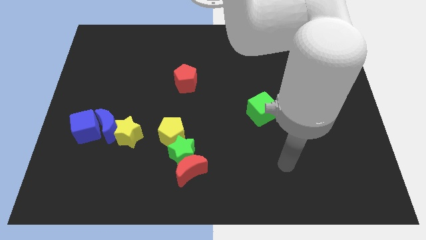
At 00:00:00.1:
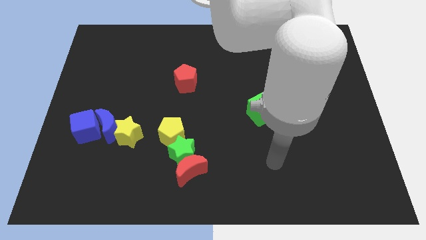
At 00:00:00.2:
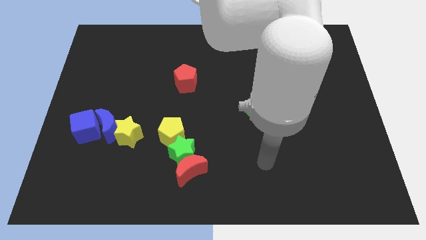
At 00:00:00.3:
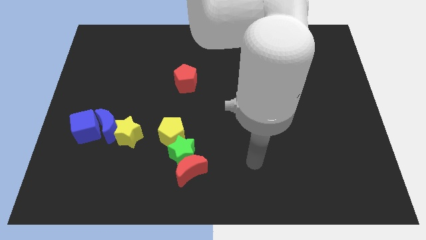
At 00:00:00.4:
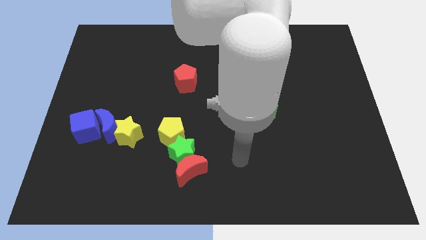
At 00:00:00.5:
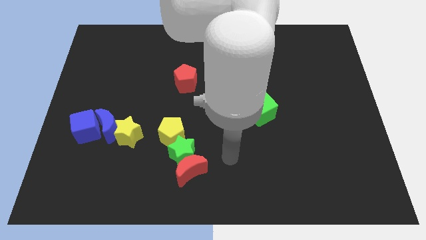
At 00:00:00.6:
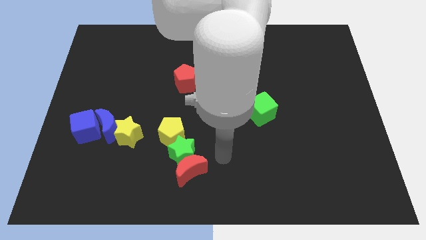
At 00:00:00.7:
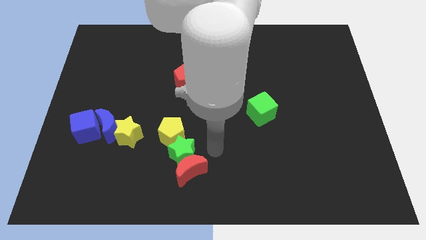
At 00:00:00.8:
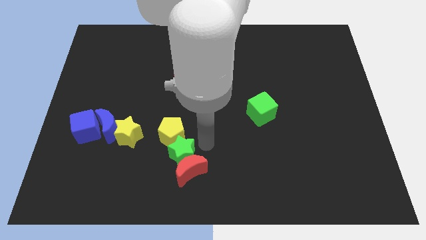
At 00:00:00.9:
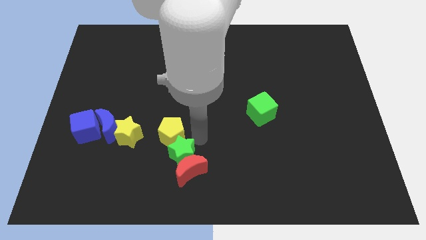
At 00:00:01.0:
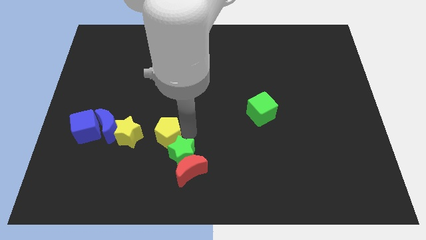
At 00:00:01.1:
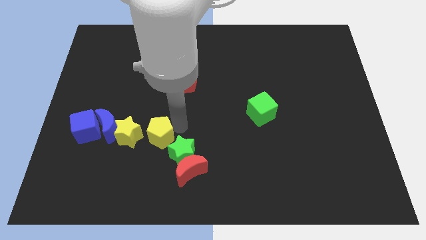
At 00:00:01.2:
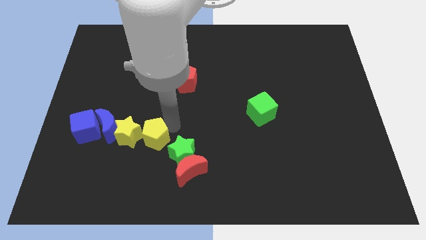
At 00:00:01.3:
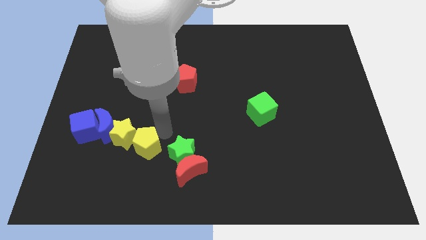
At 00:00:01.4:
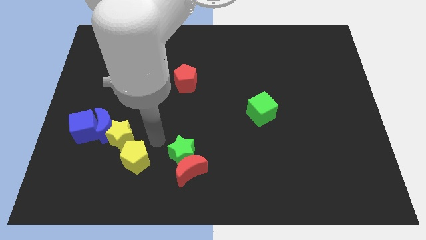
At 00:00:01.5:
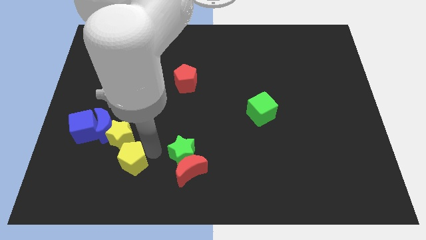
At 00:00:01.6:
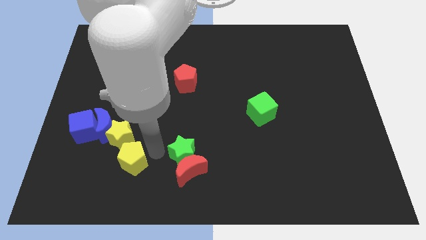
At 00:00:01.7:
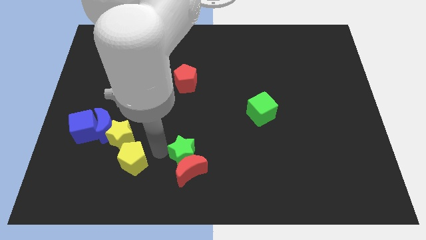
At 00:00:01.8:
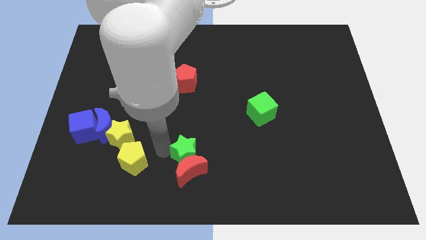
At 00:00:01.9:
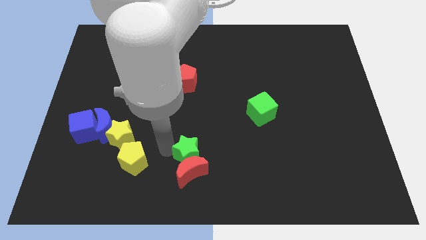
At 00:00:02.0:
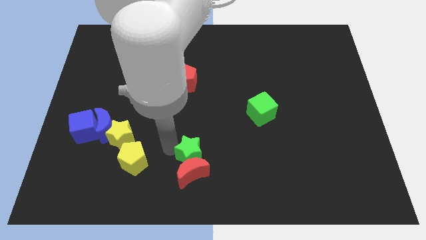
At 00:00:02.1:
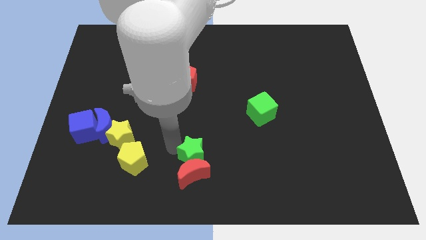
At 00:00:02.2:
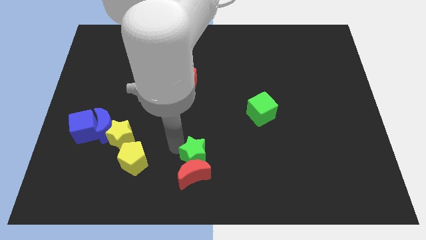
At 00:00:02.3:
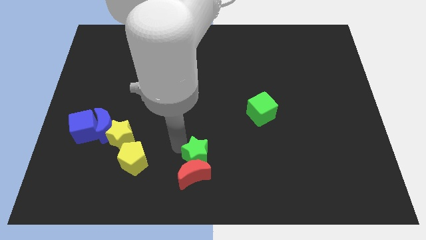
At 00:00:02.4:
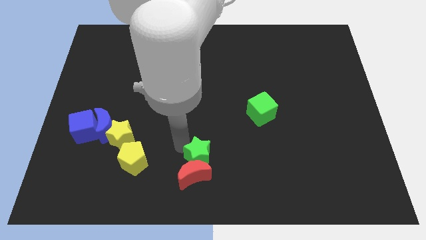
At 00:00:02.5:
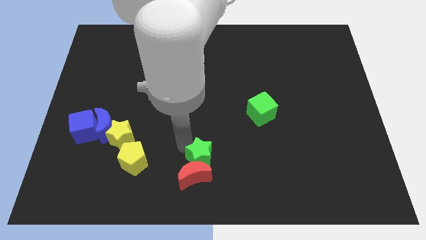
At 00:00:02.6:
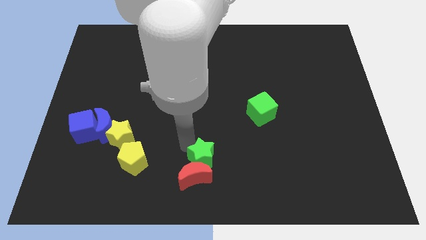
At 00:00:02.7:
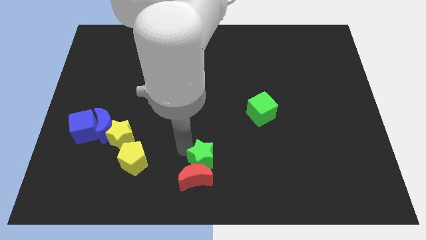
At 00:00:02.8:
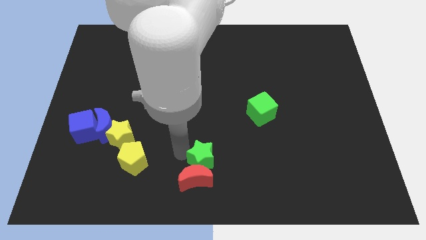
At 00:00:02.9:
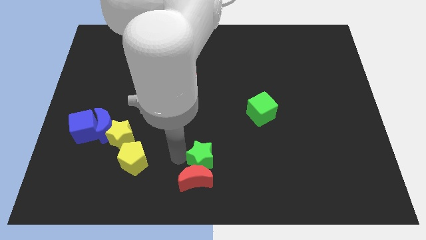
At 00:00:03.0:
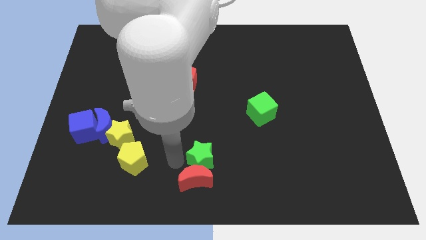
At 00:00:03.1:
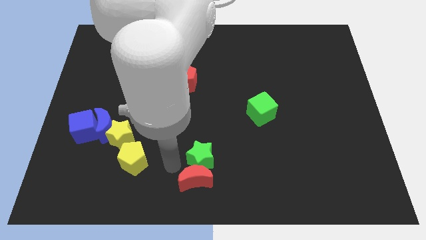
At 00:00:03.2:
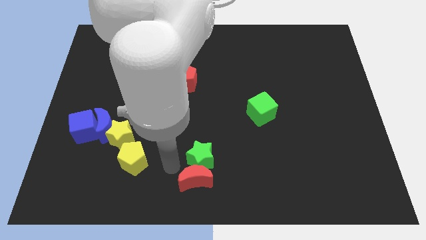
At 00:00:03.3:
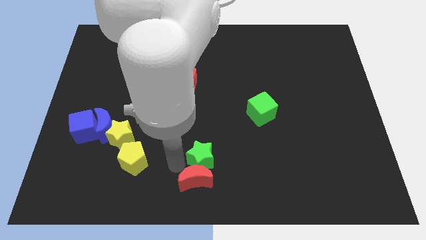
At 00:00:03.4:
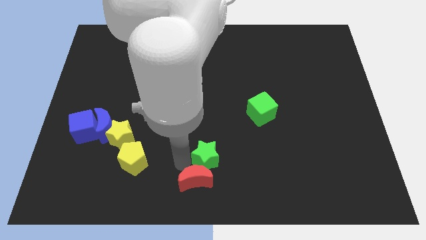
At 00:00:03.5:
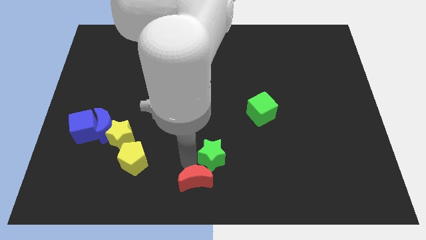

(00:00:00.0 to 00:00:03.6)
separate the green star from the red moon and yellow pentagon

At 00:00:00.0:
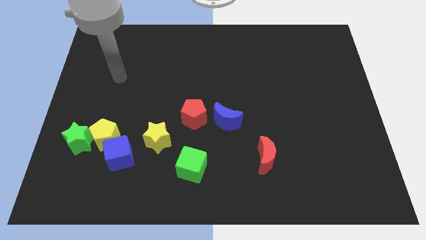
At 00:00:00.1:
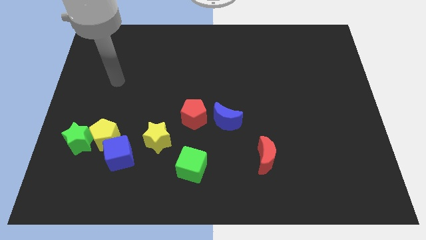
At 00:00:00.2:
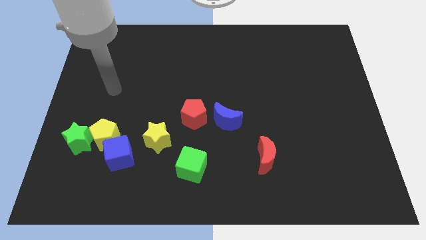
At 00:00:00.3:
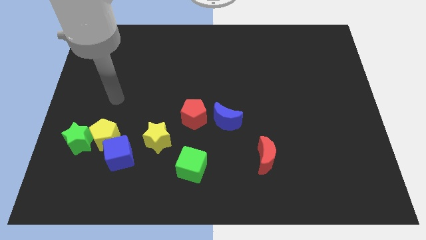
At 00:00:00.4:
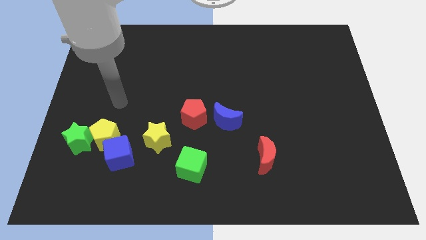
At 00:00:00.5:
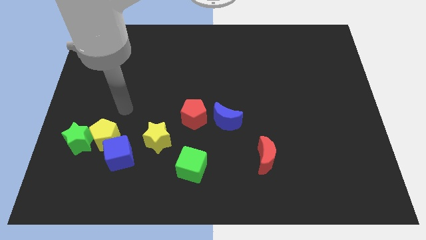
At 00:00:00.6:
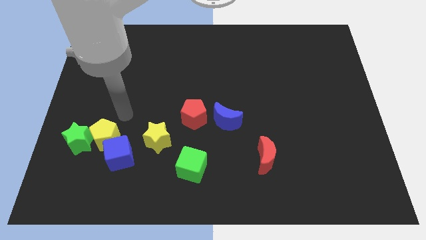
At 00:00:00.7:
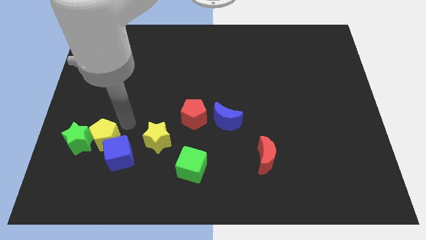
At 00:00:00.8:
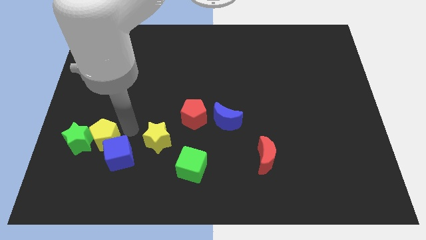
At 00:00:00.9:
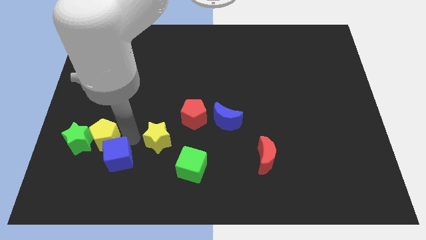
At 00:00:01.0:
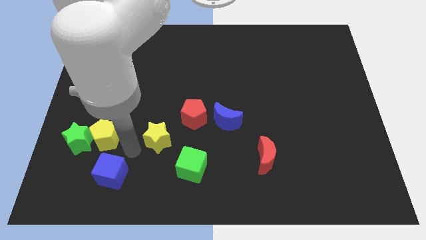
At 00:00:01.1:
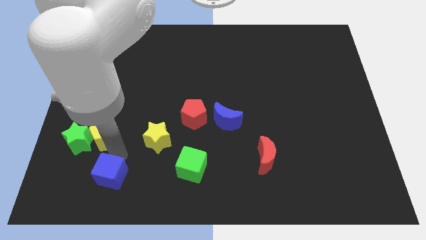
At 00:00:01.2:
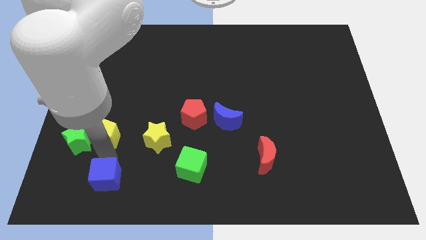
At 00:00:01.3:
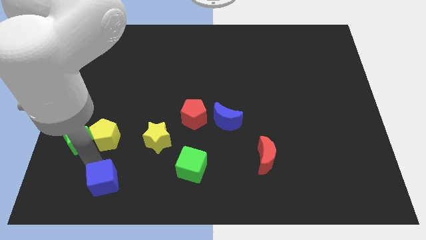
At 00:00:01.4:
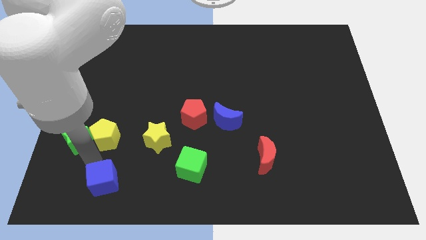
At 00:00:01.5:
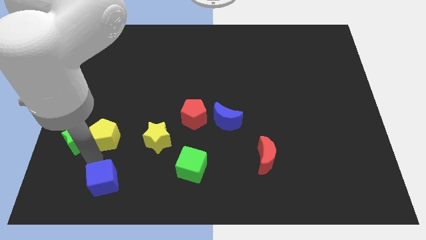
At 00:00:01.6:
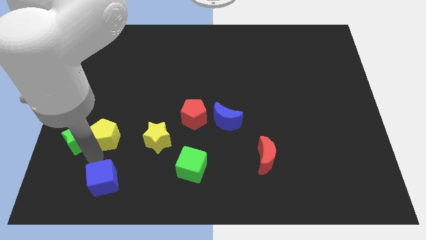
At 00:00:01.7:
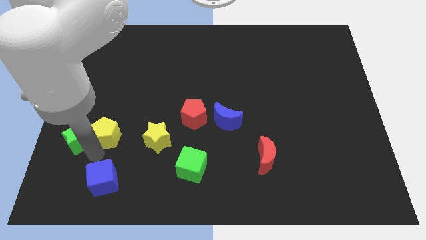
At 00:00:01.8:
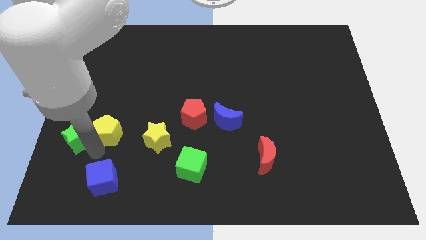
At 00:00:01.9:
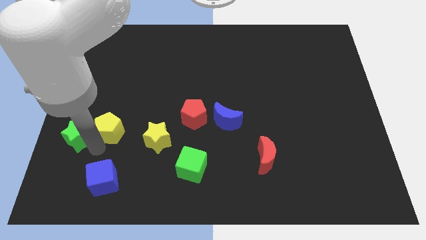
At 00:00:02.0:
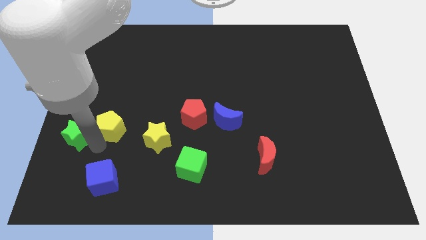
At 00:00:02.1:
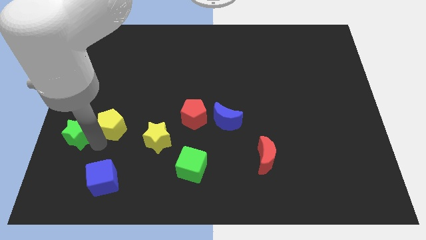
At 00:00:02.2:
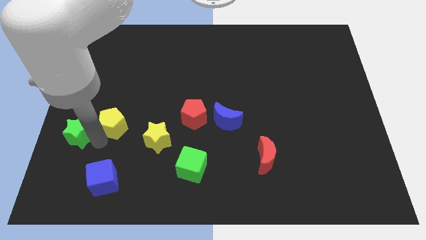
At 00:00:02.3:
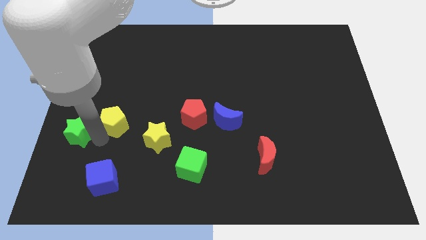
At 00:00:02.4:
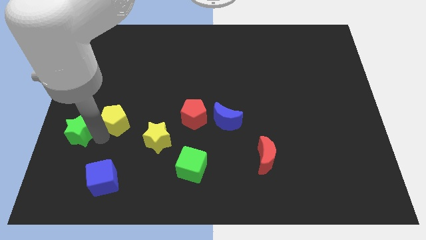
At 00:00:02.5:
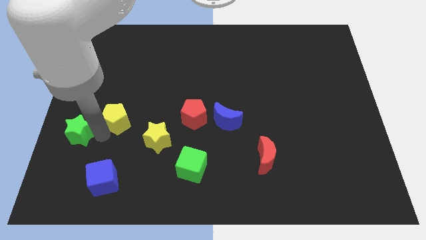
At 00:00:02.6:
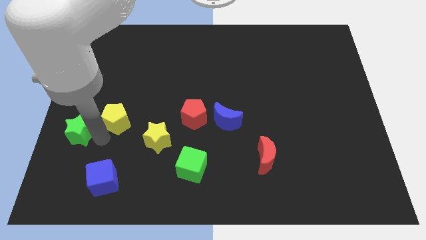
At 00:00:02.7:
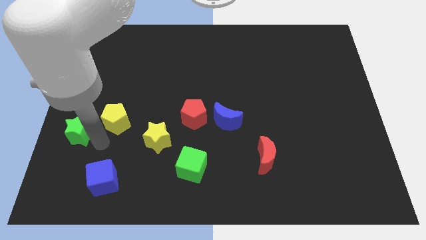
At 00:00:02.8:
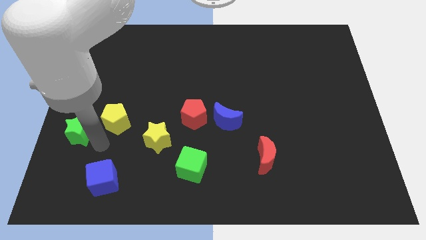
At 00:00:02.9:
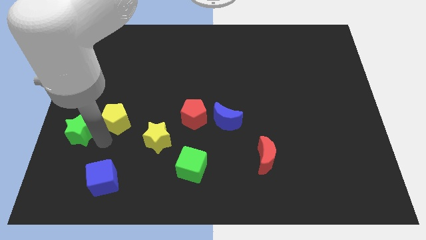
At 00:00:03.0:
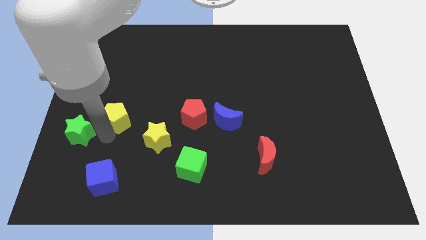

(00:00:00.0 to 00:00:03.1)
separate the yellow pentagon from the green star and blue cube

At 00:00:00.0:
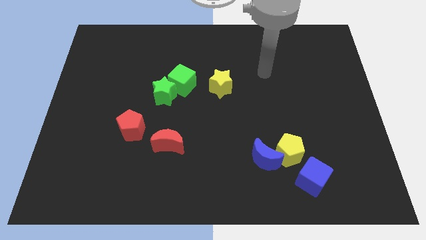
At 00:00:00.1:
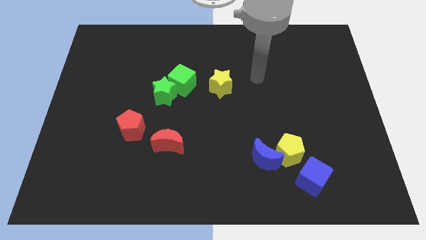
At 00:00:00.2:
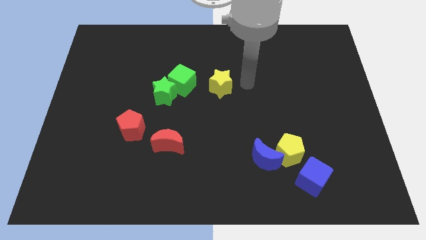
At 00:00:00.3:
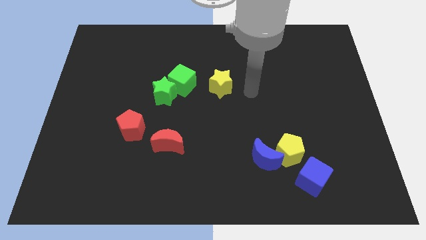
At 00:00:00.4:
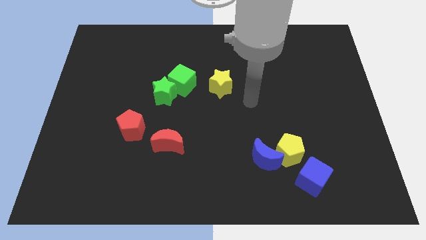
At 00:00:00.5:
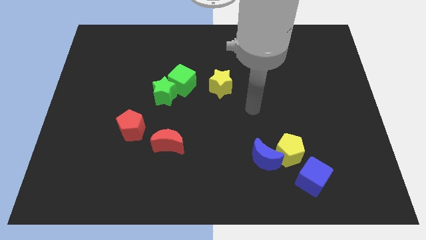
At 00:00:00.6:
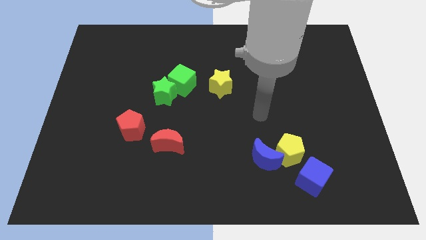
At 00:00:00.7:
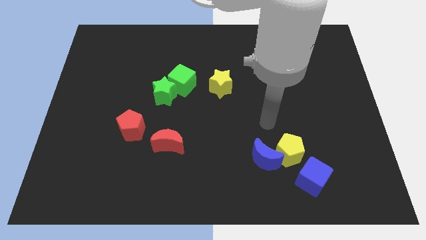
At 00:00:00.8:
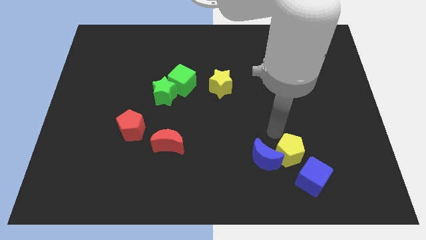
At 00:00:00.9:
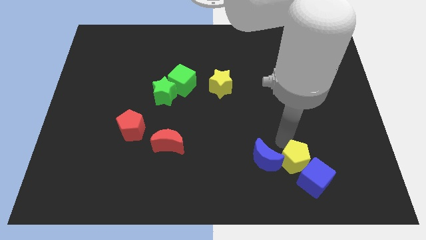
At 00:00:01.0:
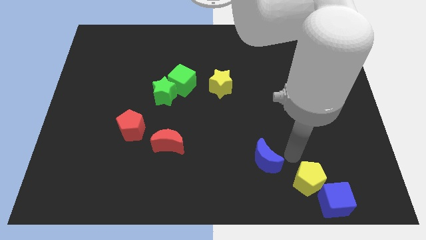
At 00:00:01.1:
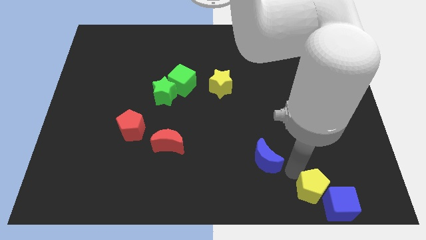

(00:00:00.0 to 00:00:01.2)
pull the blue moon apart from the yellow pentagon

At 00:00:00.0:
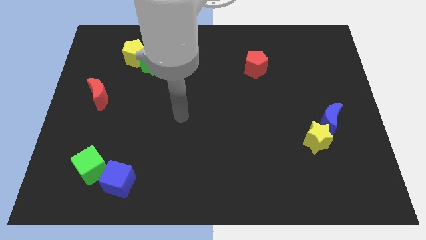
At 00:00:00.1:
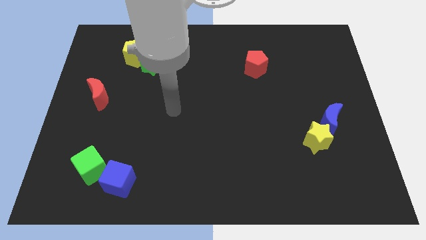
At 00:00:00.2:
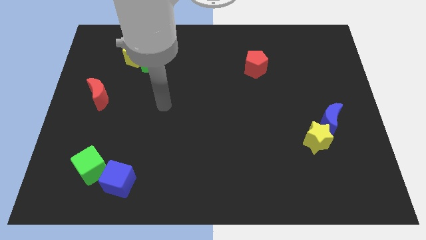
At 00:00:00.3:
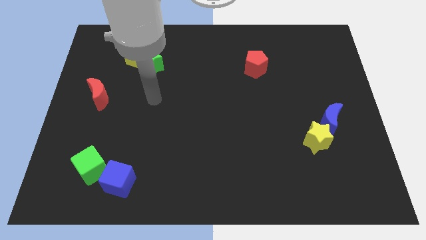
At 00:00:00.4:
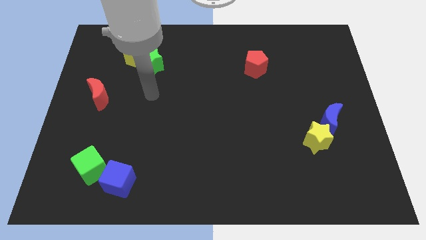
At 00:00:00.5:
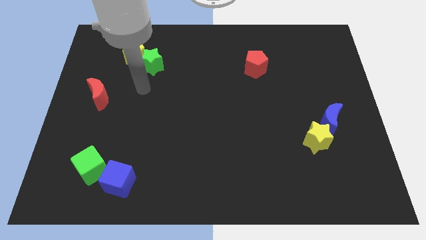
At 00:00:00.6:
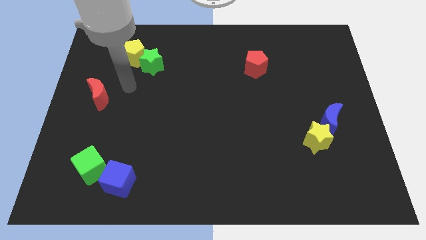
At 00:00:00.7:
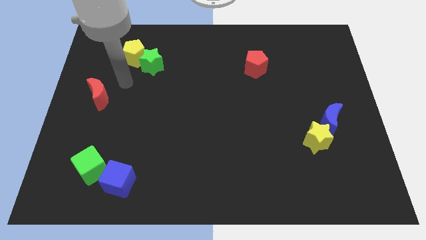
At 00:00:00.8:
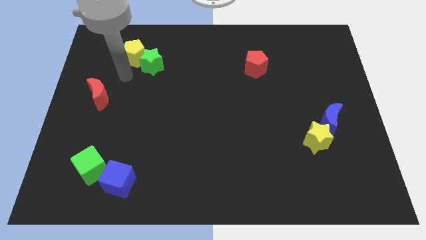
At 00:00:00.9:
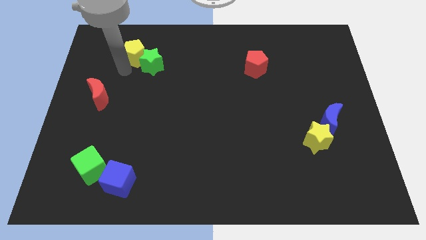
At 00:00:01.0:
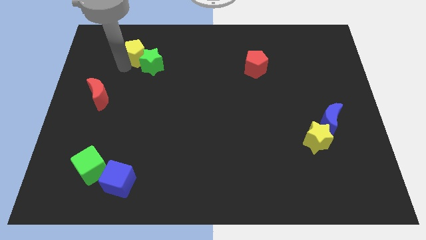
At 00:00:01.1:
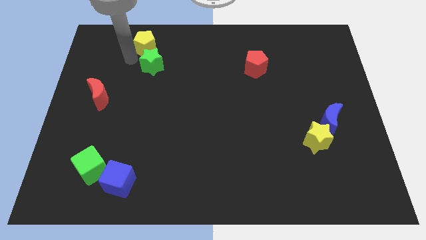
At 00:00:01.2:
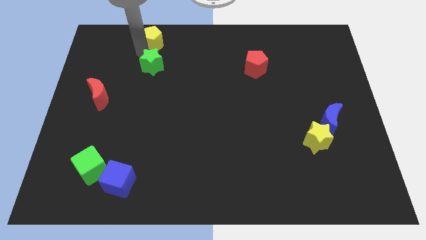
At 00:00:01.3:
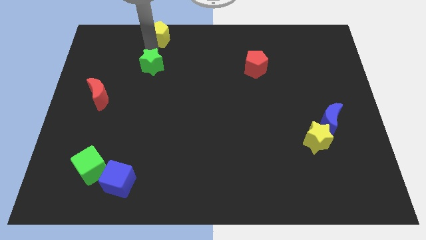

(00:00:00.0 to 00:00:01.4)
move the green star away from the yellow pentagon
